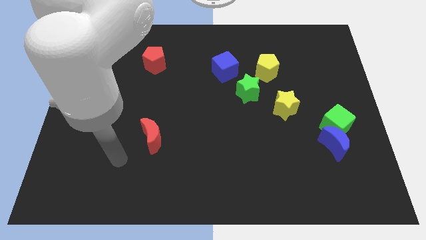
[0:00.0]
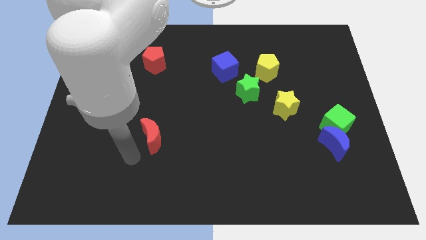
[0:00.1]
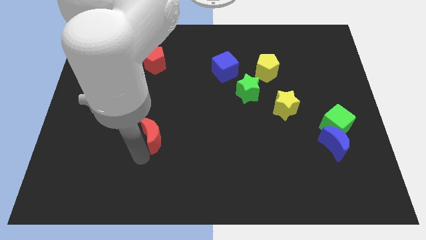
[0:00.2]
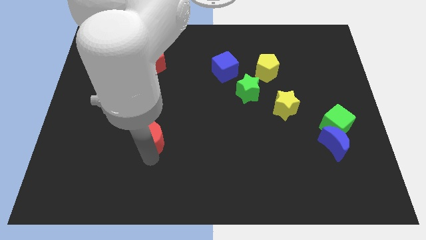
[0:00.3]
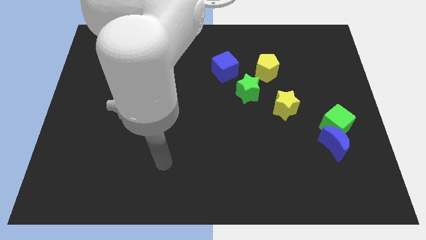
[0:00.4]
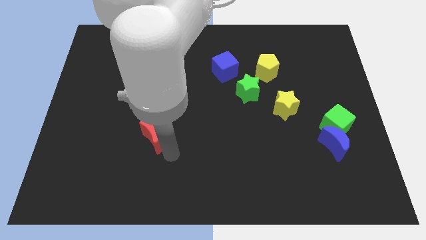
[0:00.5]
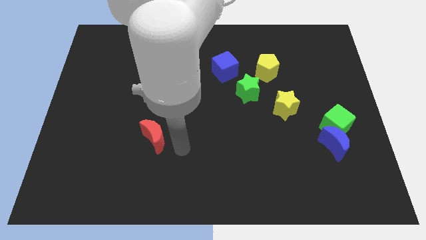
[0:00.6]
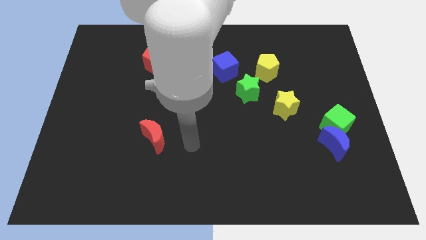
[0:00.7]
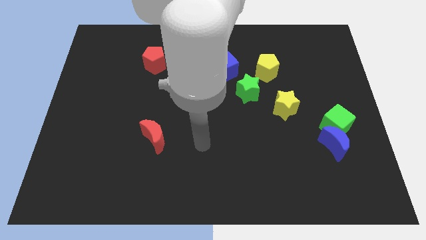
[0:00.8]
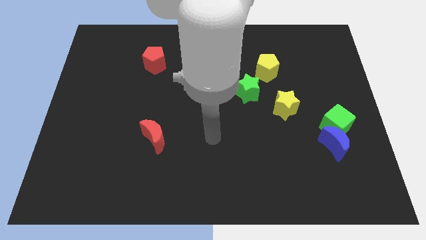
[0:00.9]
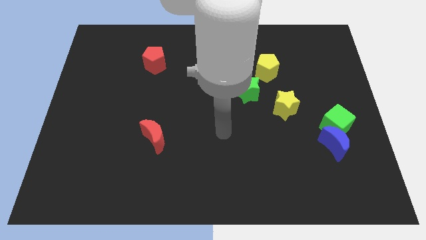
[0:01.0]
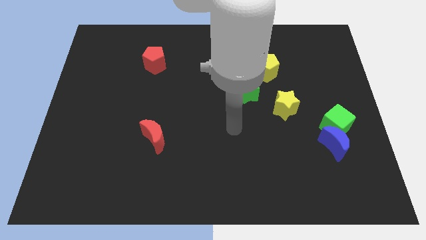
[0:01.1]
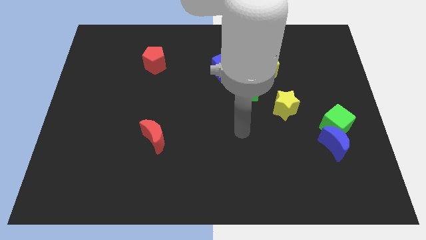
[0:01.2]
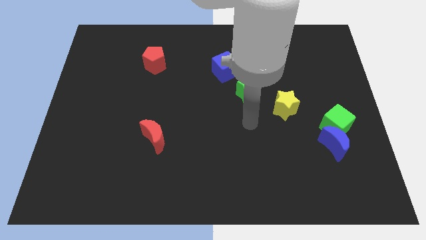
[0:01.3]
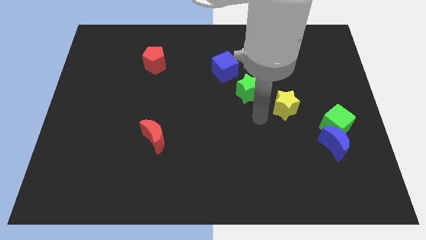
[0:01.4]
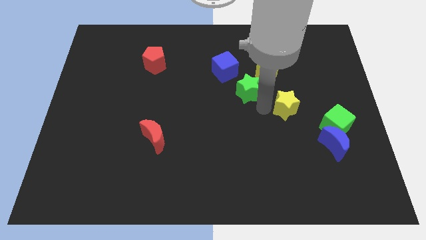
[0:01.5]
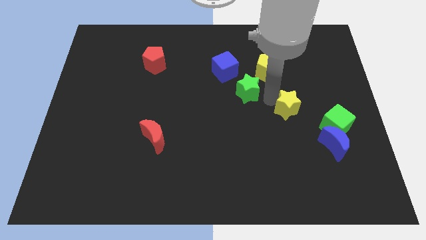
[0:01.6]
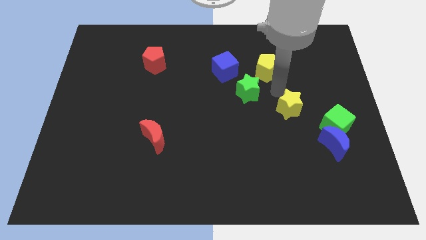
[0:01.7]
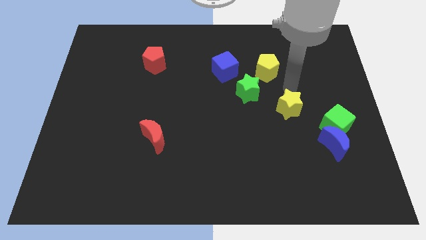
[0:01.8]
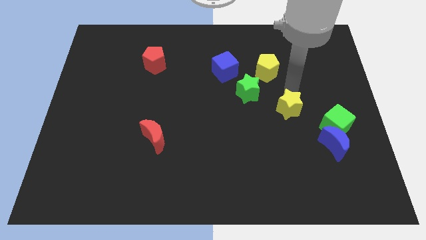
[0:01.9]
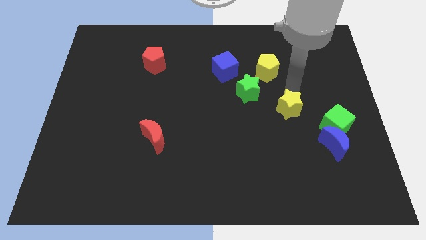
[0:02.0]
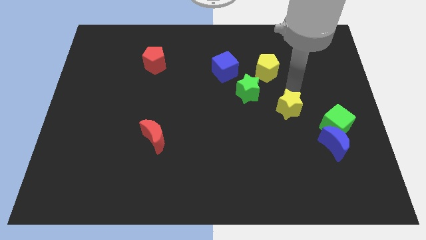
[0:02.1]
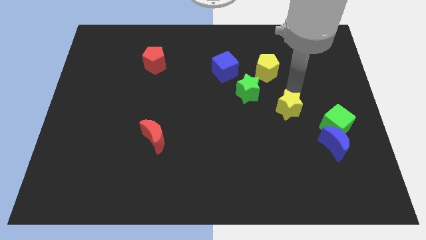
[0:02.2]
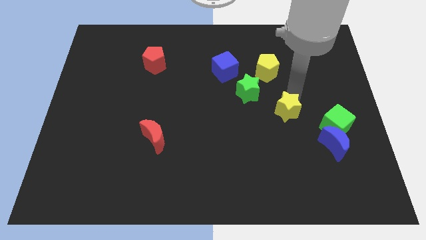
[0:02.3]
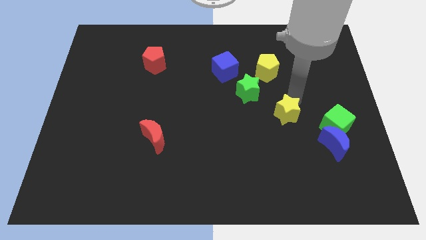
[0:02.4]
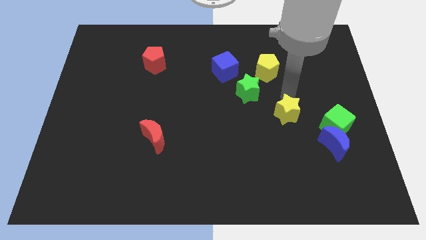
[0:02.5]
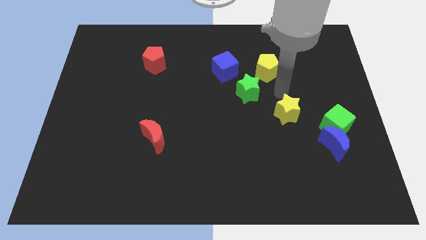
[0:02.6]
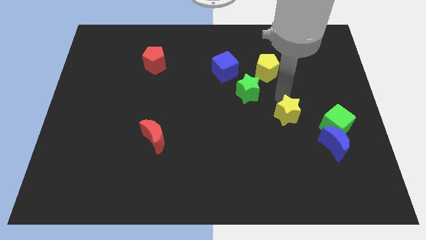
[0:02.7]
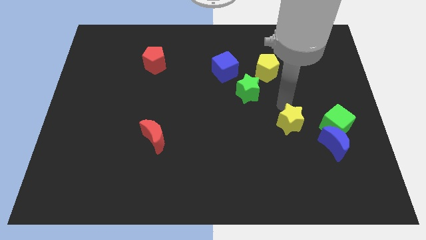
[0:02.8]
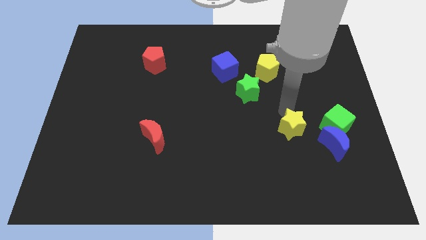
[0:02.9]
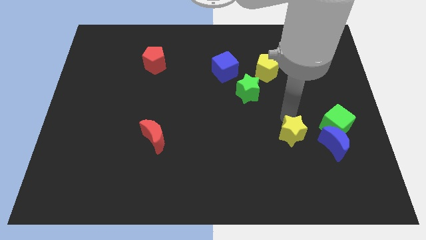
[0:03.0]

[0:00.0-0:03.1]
push the yellow star downwards a little bit

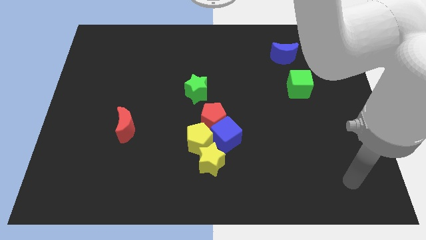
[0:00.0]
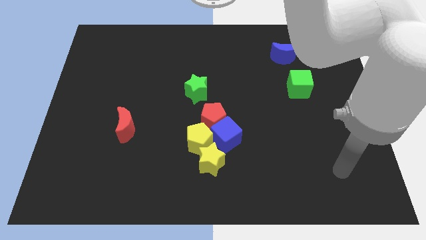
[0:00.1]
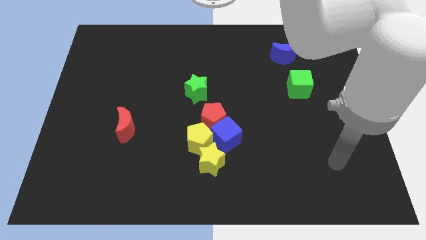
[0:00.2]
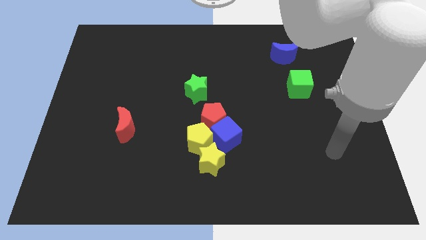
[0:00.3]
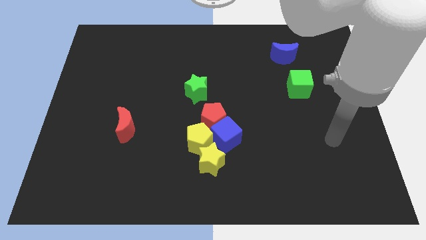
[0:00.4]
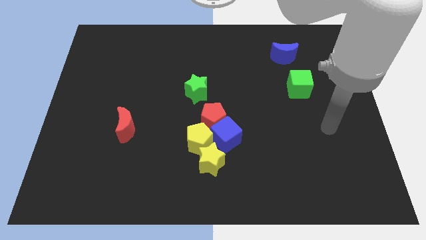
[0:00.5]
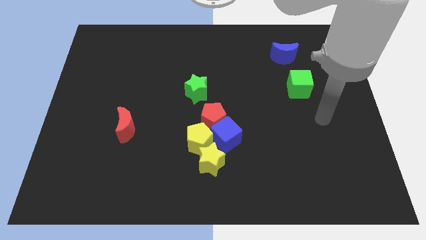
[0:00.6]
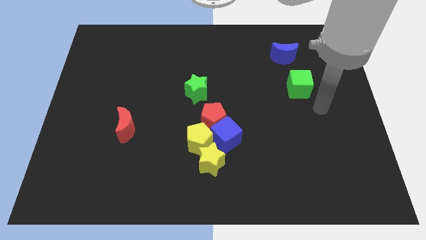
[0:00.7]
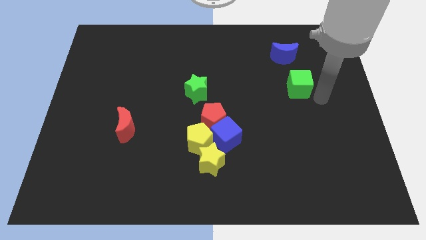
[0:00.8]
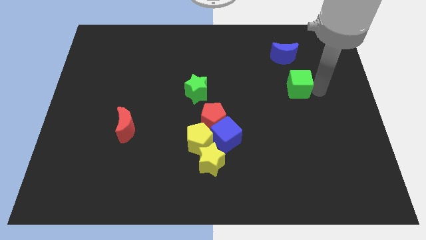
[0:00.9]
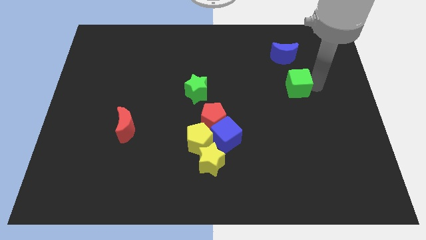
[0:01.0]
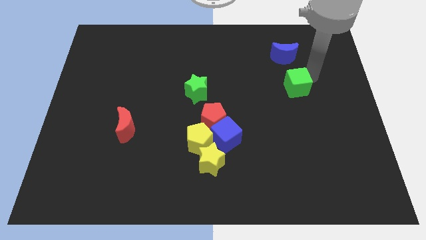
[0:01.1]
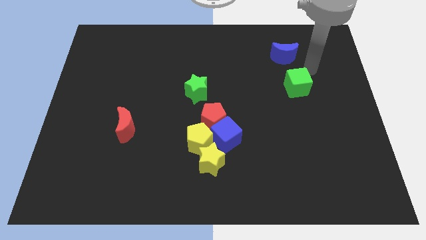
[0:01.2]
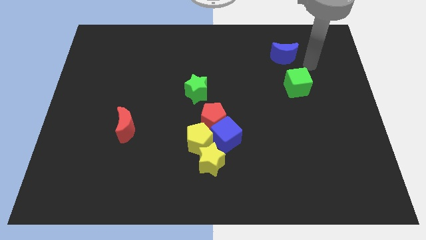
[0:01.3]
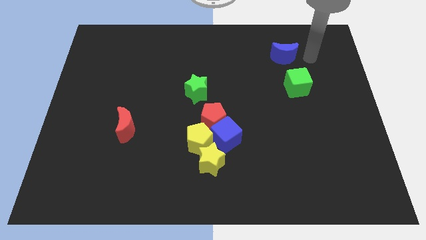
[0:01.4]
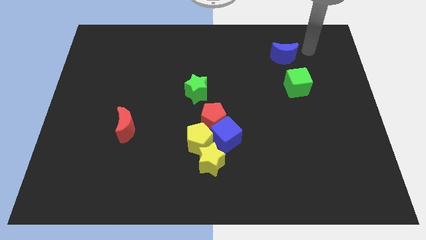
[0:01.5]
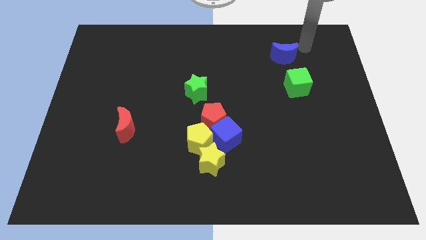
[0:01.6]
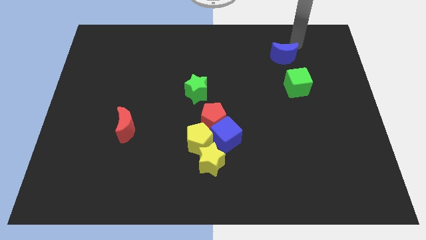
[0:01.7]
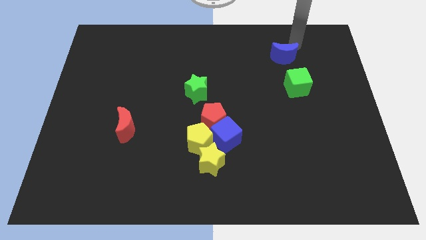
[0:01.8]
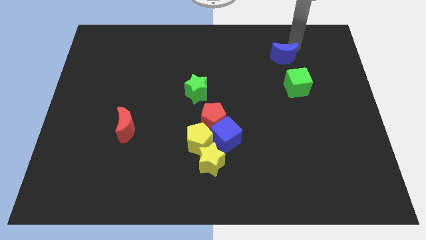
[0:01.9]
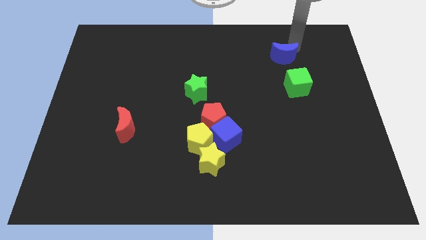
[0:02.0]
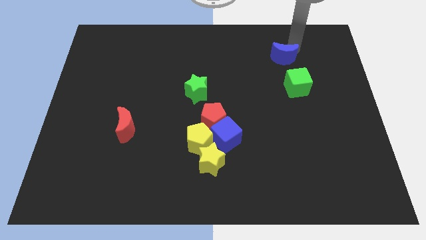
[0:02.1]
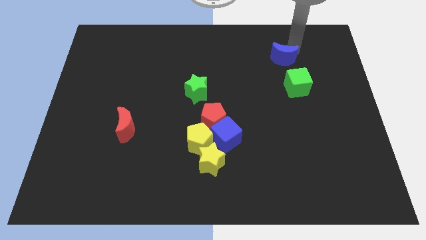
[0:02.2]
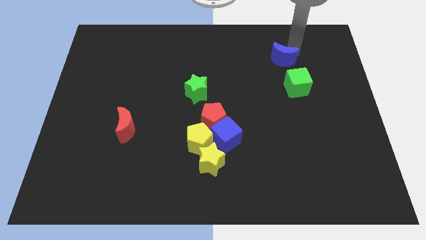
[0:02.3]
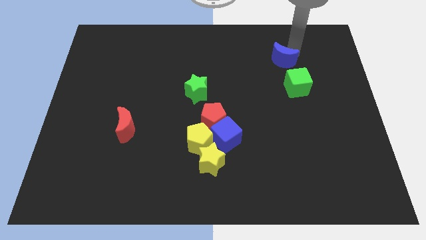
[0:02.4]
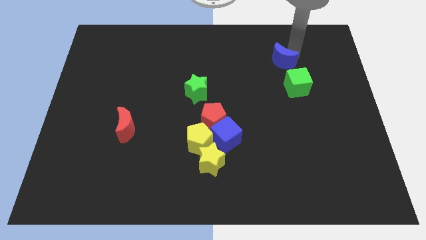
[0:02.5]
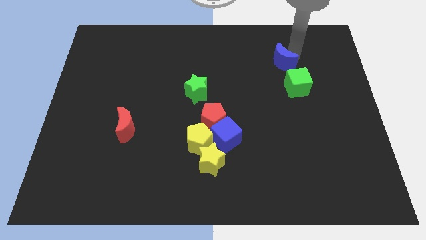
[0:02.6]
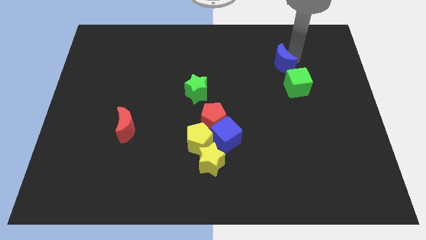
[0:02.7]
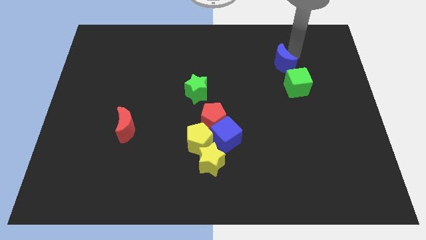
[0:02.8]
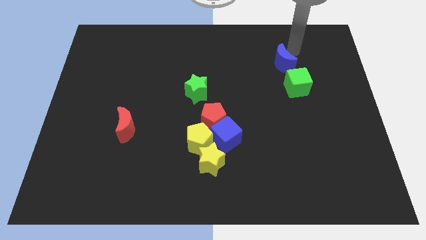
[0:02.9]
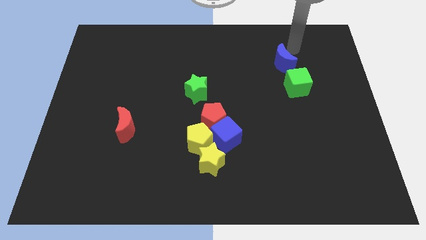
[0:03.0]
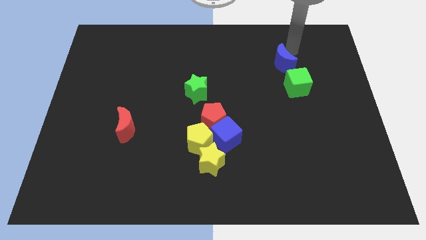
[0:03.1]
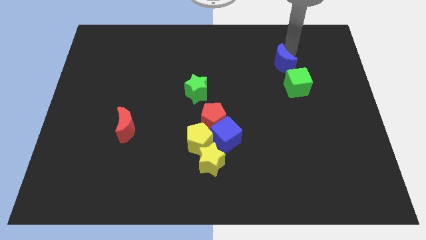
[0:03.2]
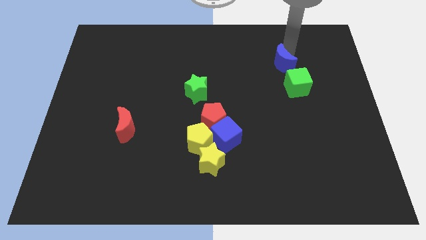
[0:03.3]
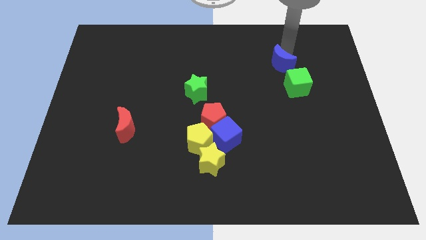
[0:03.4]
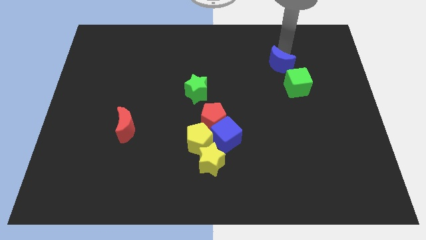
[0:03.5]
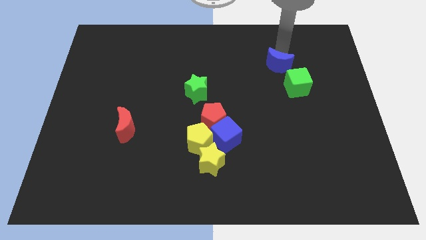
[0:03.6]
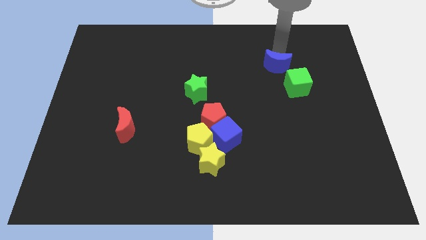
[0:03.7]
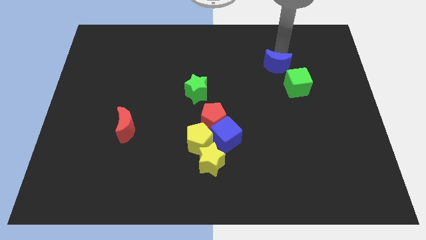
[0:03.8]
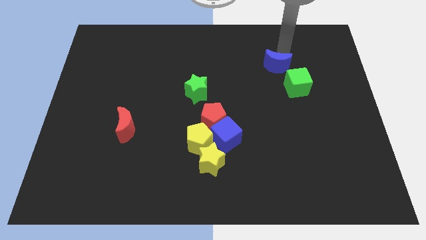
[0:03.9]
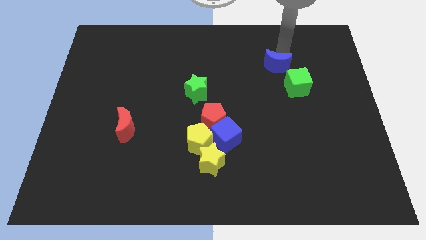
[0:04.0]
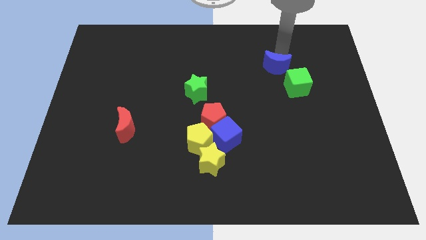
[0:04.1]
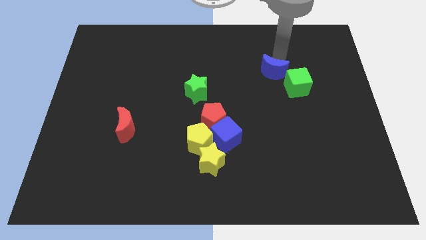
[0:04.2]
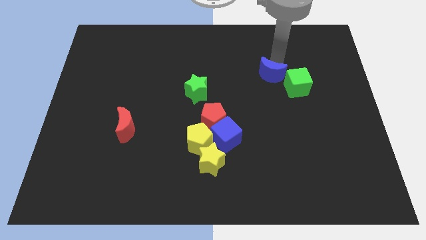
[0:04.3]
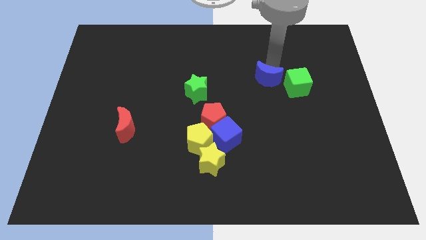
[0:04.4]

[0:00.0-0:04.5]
push the blue moon a bit downwards

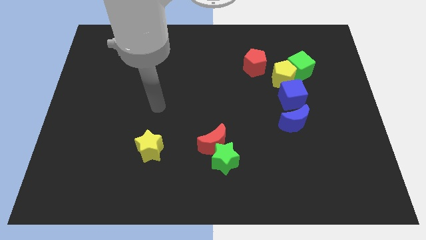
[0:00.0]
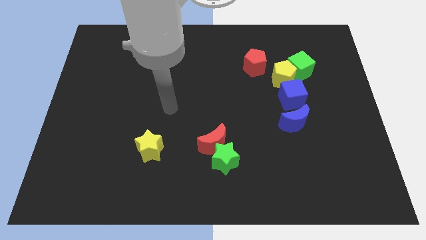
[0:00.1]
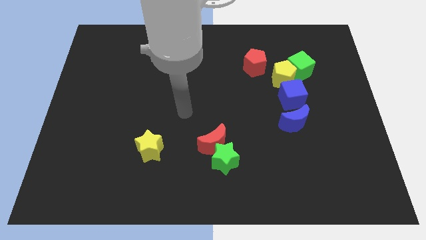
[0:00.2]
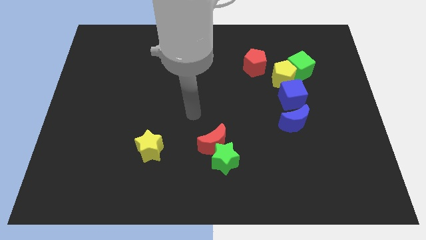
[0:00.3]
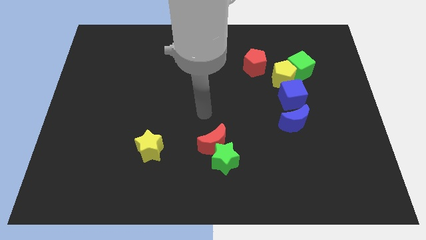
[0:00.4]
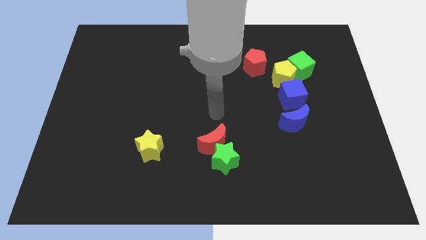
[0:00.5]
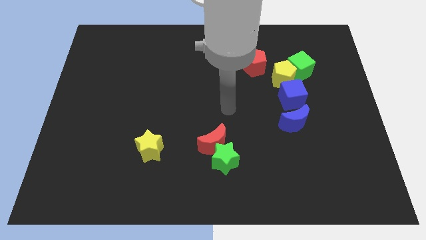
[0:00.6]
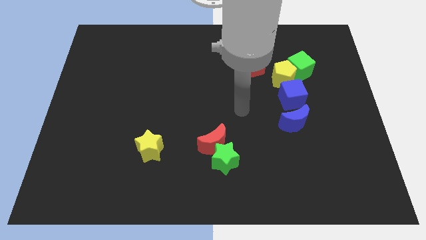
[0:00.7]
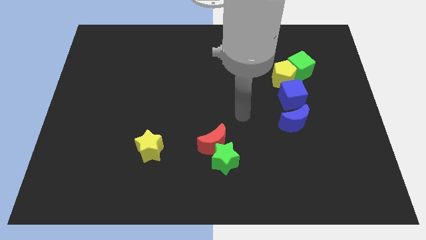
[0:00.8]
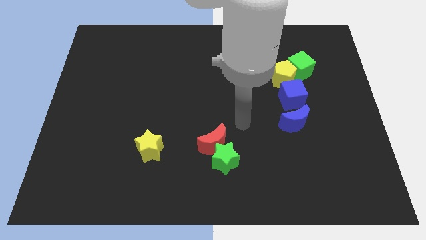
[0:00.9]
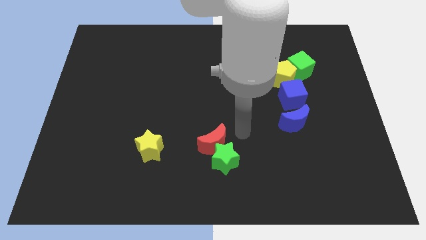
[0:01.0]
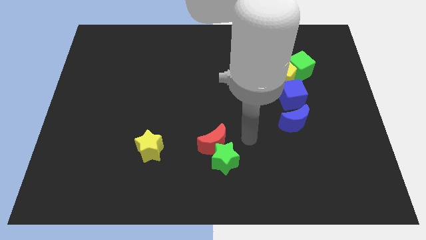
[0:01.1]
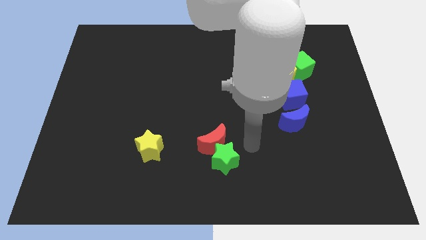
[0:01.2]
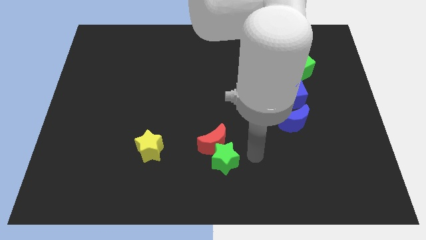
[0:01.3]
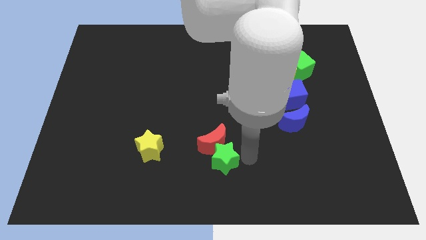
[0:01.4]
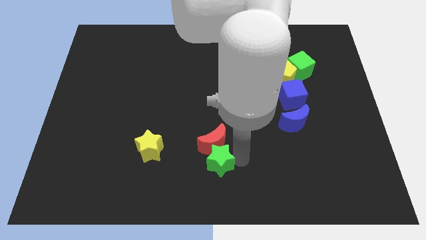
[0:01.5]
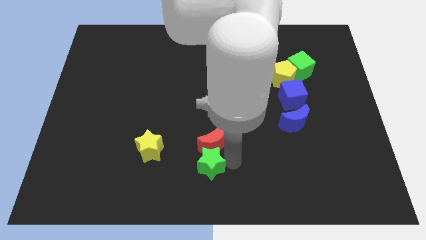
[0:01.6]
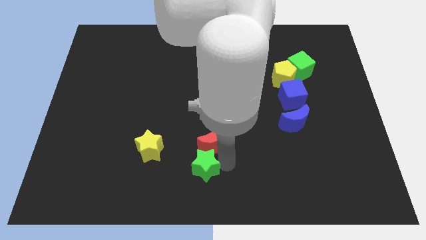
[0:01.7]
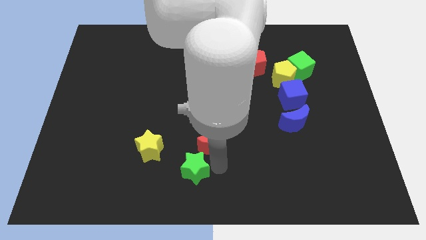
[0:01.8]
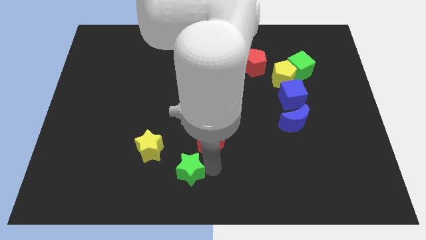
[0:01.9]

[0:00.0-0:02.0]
move the green star to the left a bit
